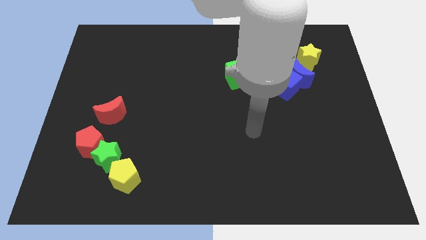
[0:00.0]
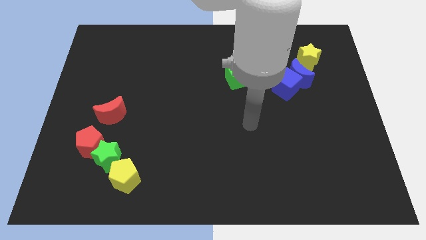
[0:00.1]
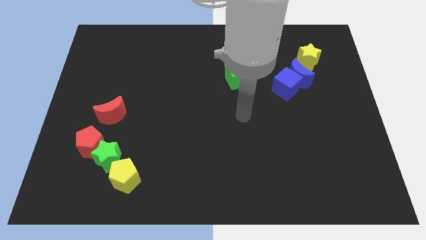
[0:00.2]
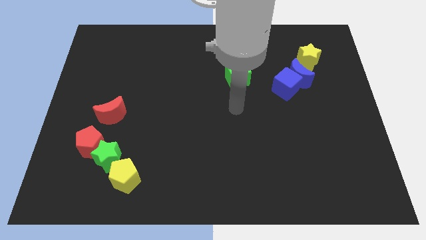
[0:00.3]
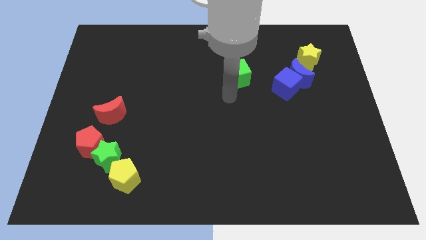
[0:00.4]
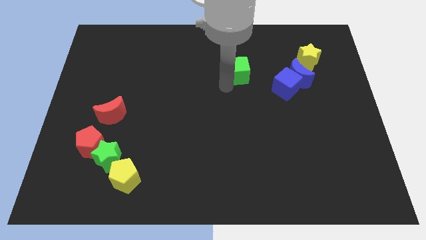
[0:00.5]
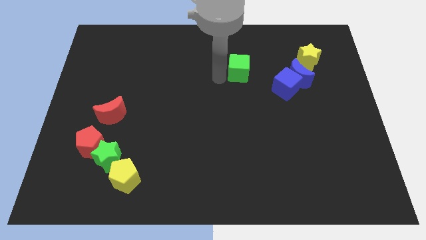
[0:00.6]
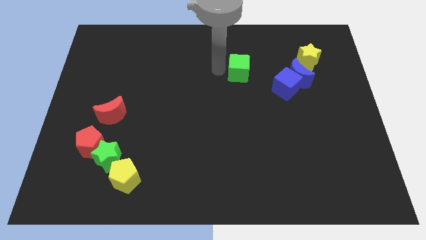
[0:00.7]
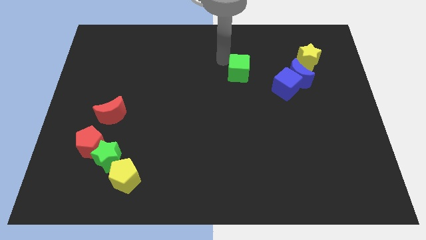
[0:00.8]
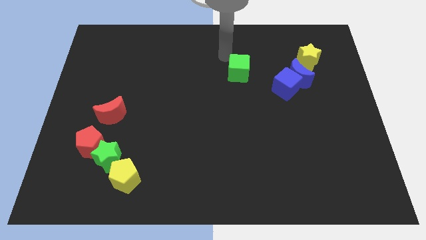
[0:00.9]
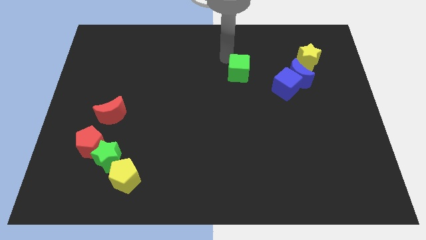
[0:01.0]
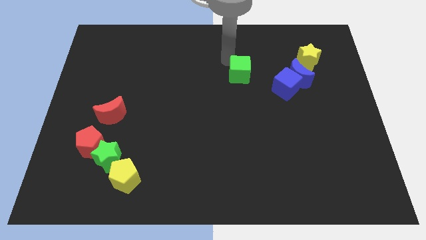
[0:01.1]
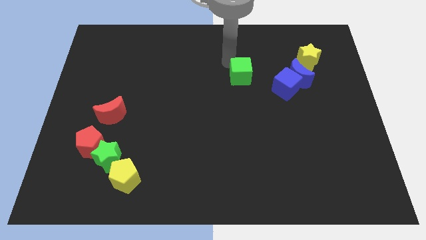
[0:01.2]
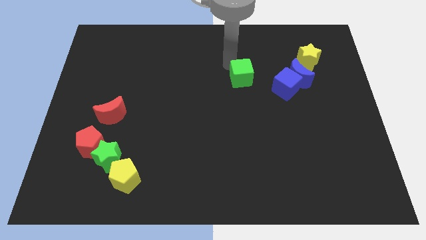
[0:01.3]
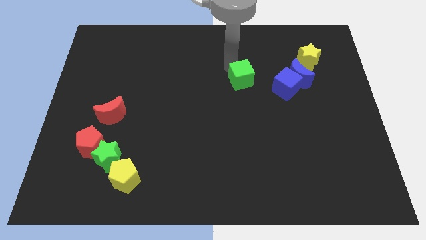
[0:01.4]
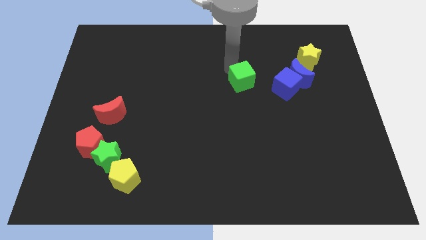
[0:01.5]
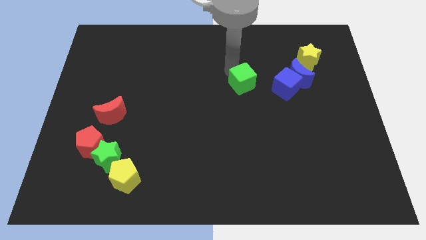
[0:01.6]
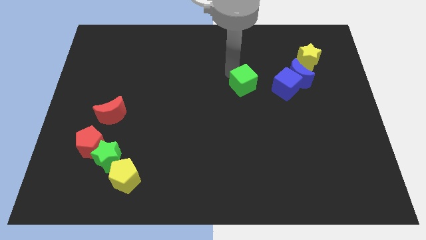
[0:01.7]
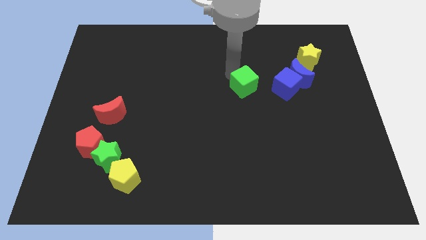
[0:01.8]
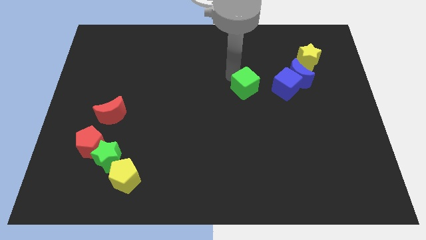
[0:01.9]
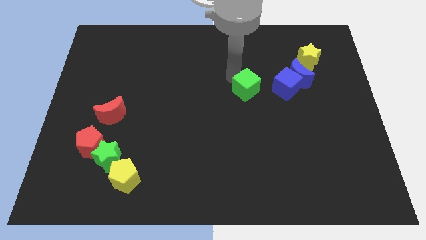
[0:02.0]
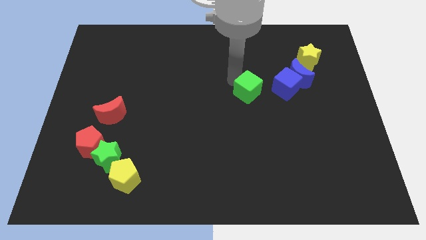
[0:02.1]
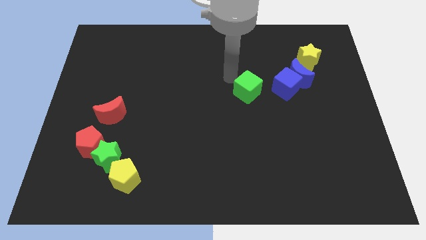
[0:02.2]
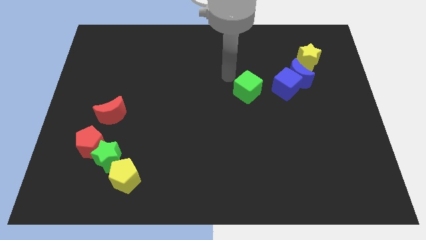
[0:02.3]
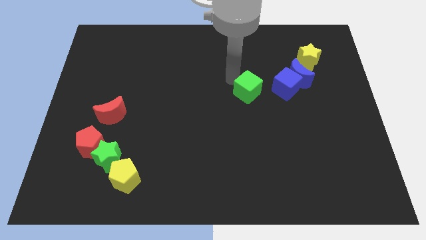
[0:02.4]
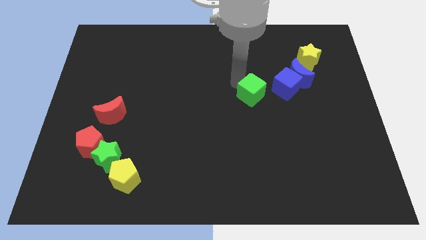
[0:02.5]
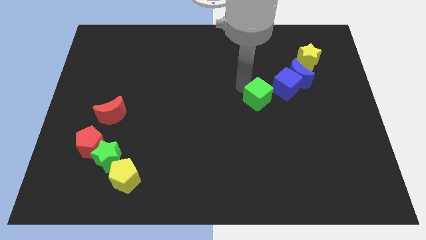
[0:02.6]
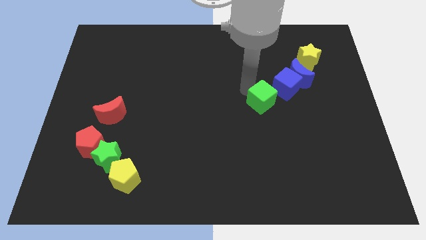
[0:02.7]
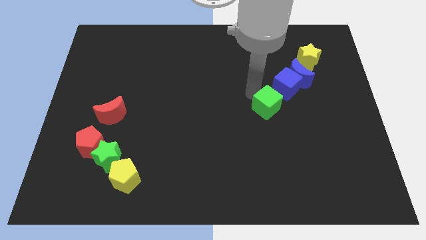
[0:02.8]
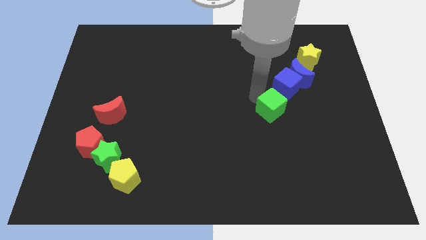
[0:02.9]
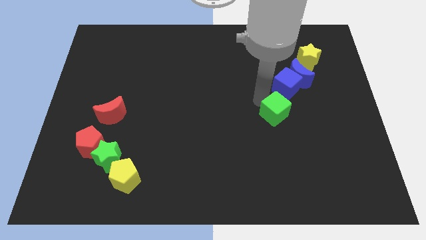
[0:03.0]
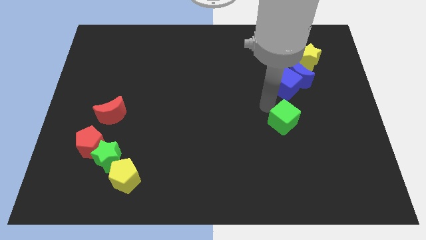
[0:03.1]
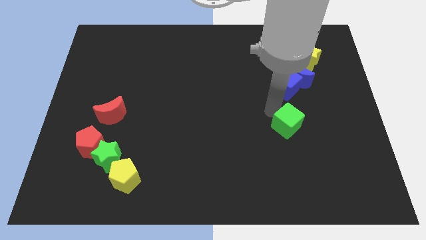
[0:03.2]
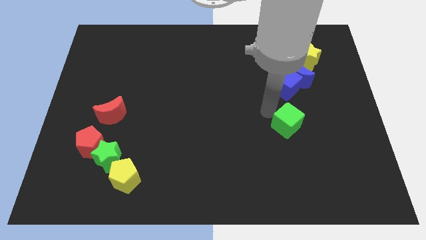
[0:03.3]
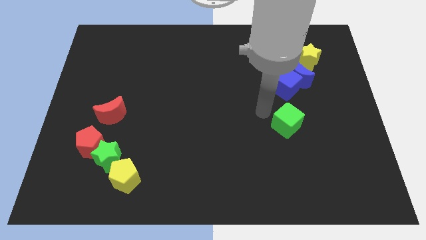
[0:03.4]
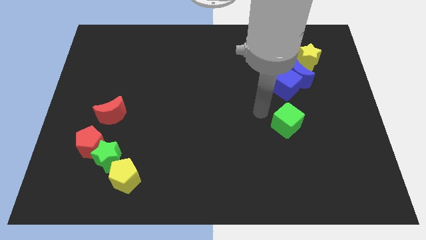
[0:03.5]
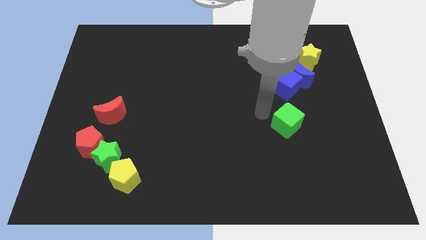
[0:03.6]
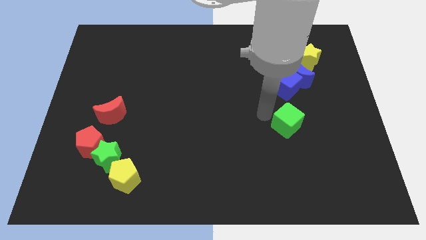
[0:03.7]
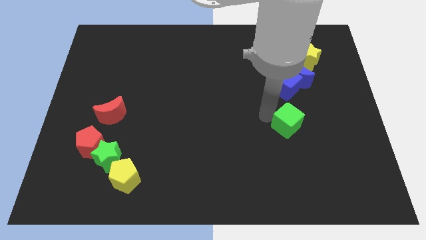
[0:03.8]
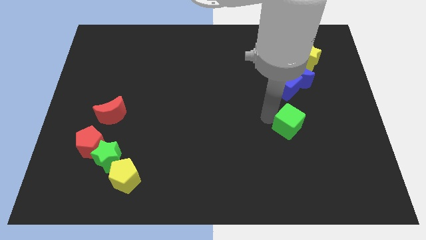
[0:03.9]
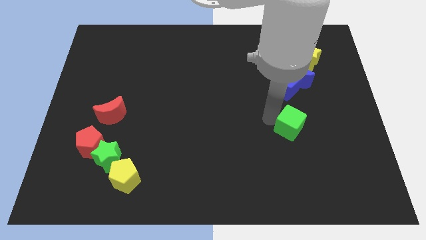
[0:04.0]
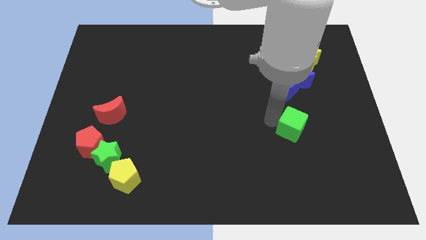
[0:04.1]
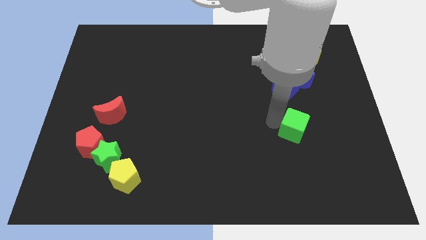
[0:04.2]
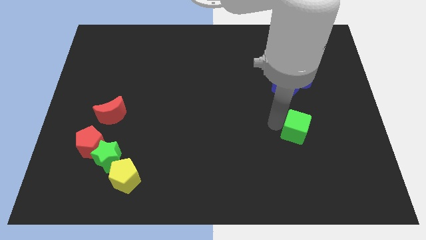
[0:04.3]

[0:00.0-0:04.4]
push the green cube diagonally downwards and right

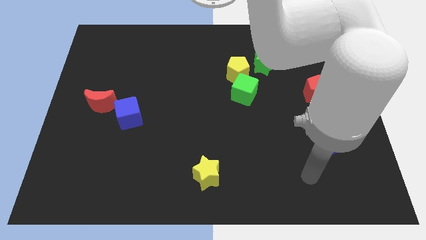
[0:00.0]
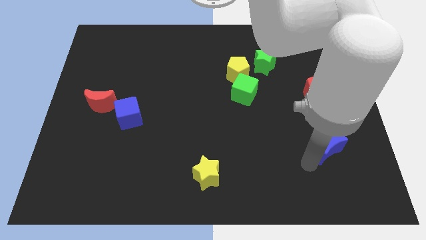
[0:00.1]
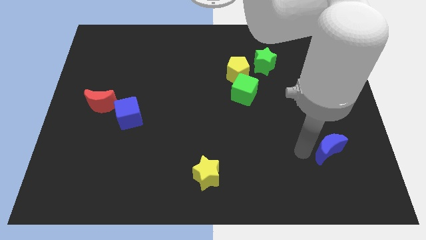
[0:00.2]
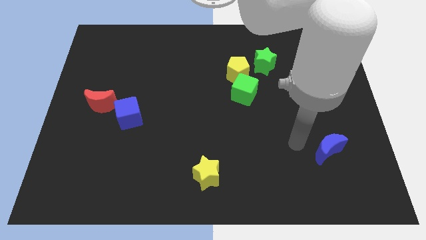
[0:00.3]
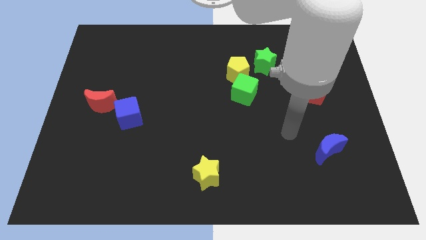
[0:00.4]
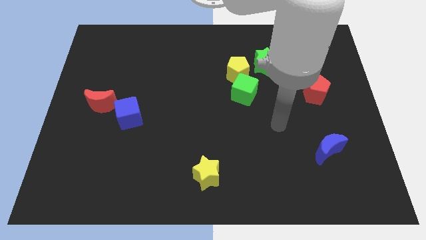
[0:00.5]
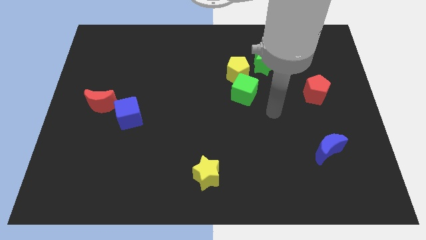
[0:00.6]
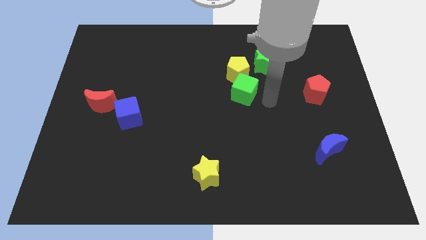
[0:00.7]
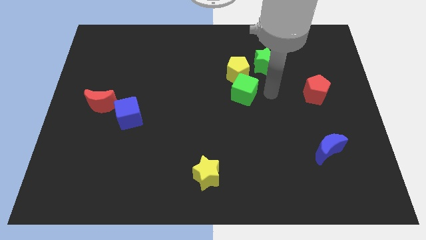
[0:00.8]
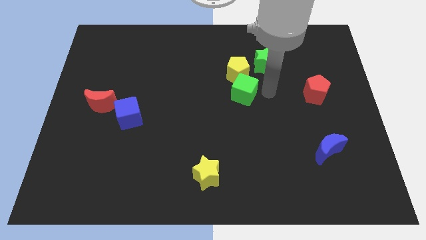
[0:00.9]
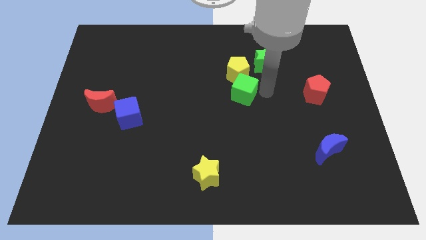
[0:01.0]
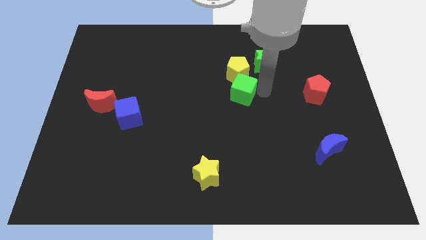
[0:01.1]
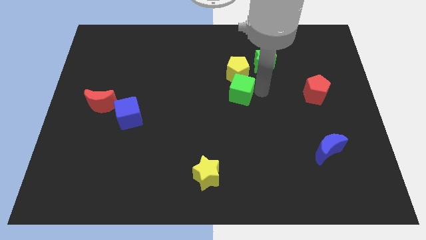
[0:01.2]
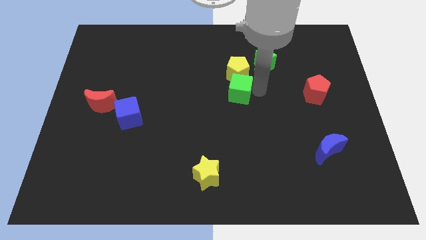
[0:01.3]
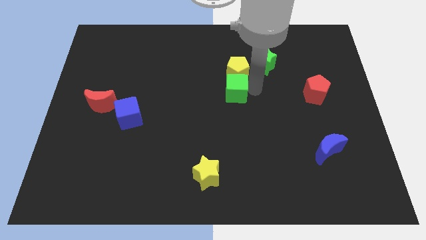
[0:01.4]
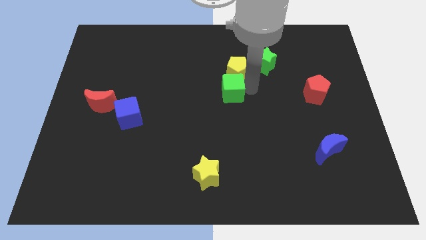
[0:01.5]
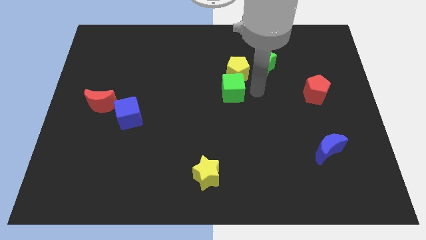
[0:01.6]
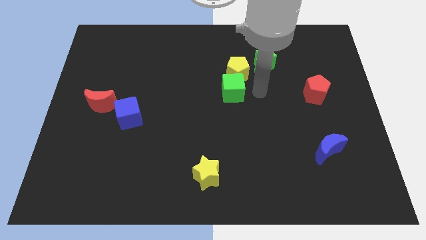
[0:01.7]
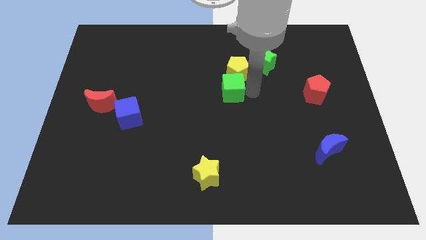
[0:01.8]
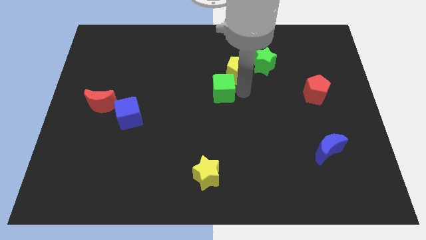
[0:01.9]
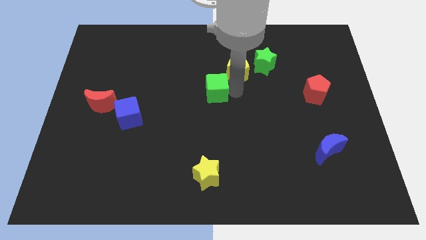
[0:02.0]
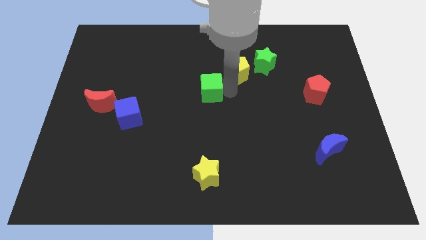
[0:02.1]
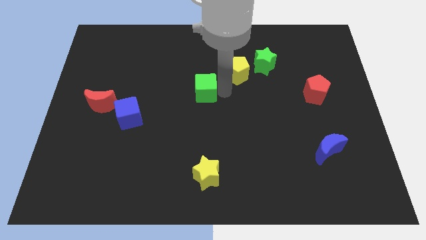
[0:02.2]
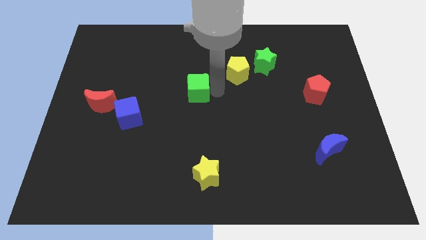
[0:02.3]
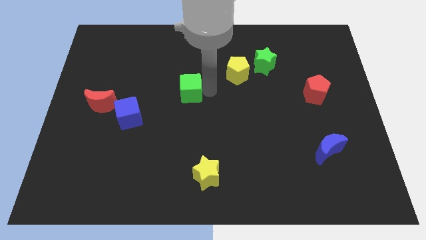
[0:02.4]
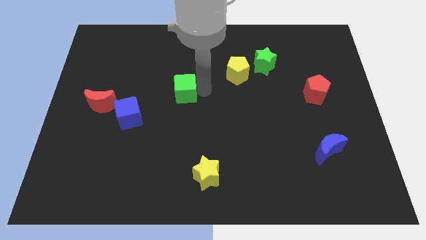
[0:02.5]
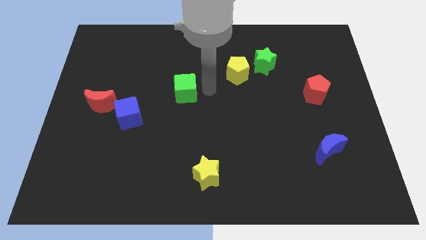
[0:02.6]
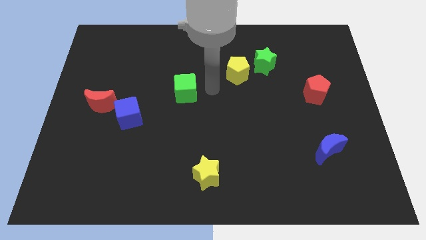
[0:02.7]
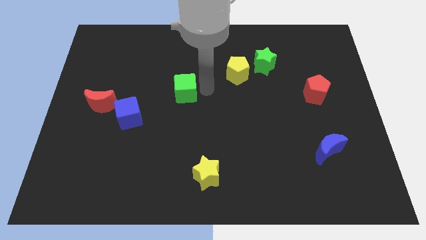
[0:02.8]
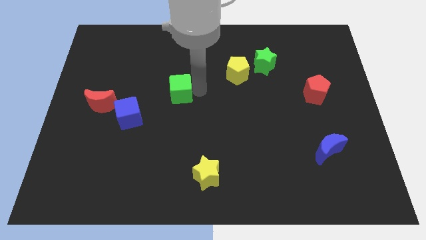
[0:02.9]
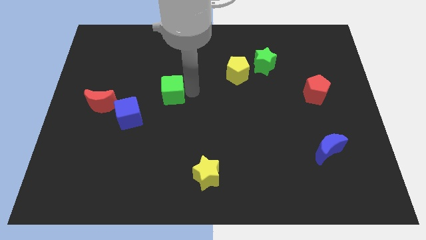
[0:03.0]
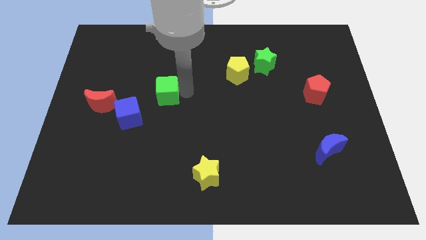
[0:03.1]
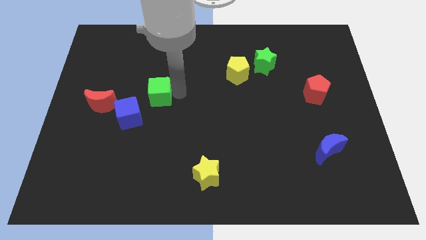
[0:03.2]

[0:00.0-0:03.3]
slide the green cube to the left

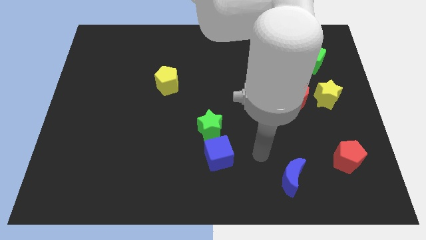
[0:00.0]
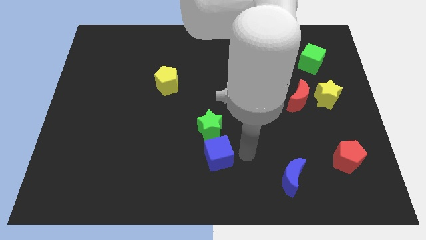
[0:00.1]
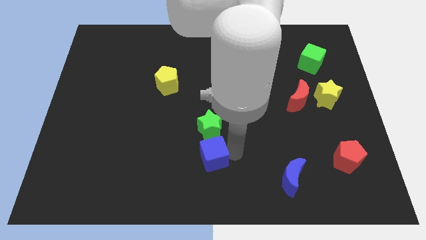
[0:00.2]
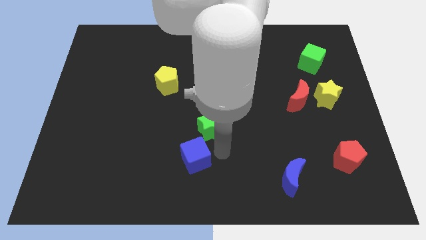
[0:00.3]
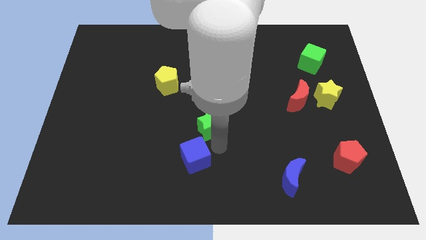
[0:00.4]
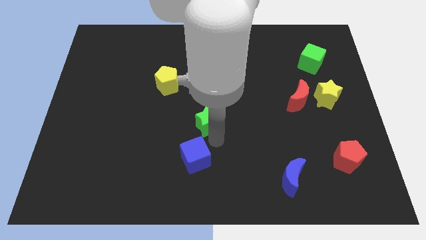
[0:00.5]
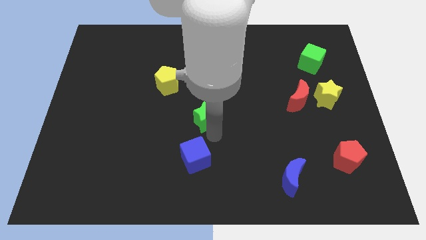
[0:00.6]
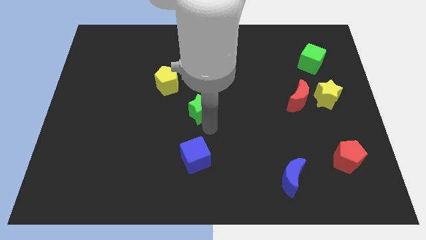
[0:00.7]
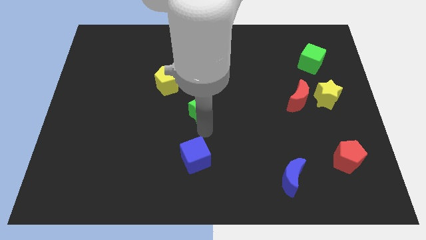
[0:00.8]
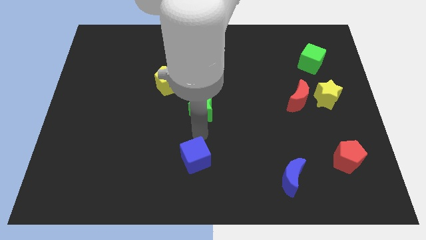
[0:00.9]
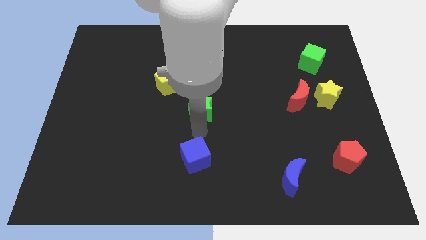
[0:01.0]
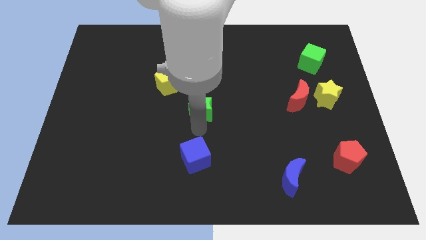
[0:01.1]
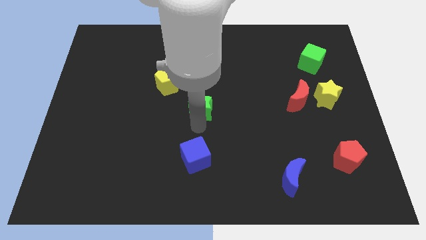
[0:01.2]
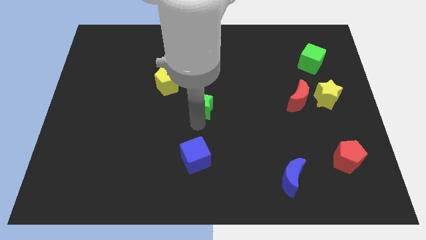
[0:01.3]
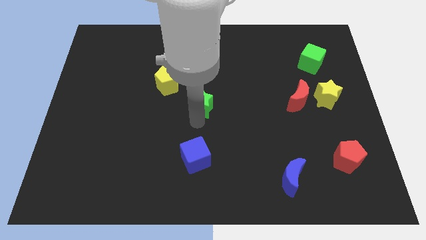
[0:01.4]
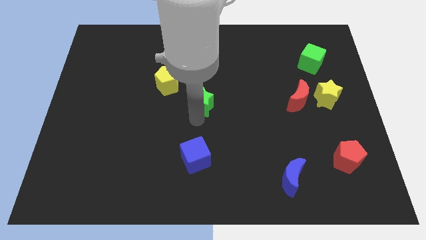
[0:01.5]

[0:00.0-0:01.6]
push the green star a little up
